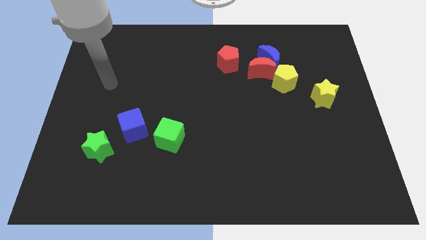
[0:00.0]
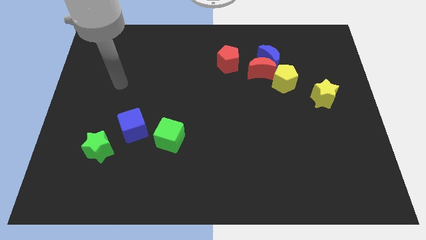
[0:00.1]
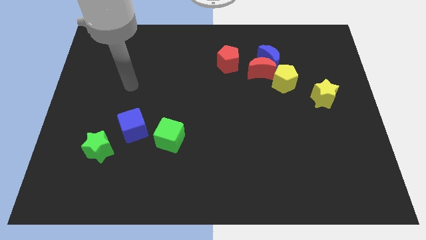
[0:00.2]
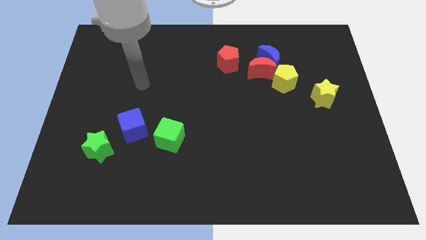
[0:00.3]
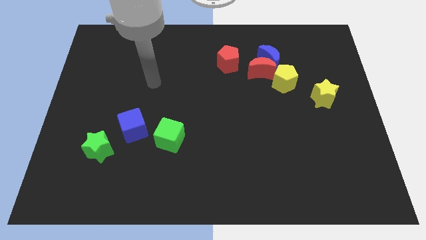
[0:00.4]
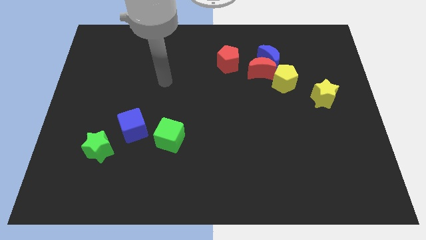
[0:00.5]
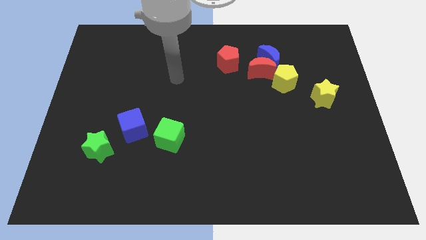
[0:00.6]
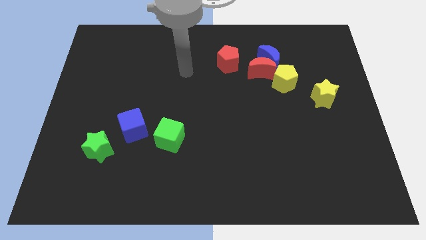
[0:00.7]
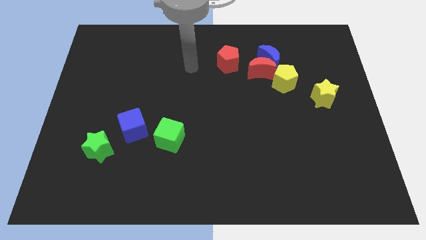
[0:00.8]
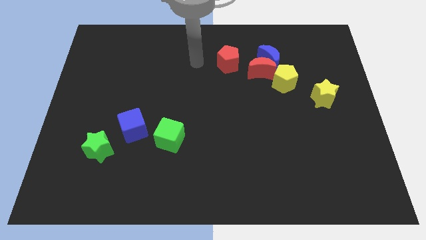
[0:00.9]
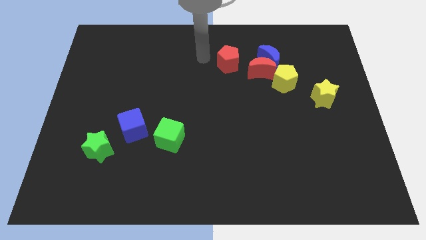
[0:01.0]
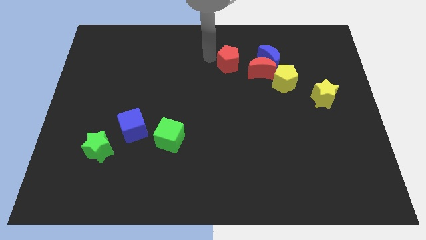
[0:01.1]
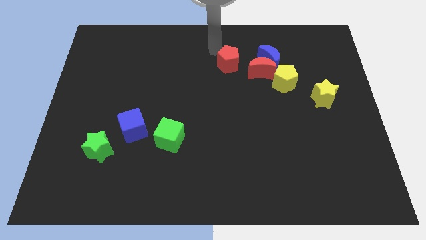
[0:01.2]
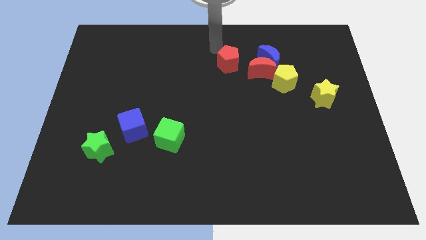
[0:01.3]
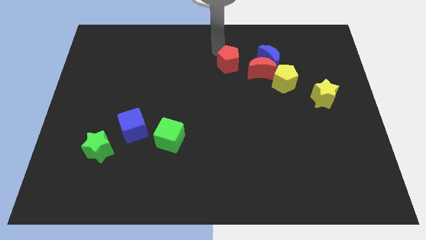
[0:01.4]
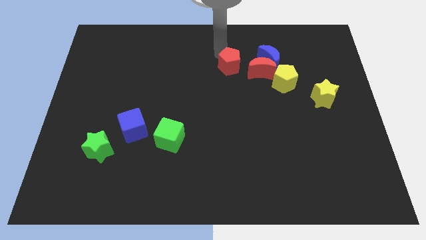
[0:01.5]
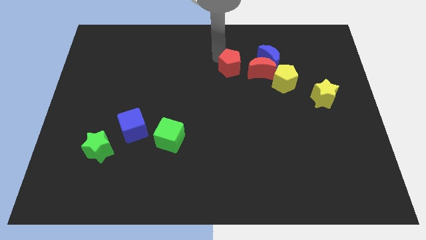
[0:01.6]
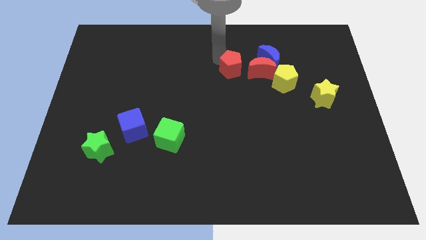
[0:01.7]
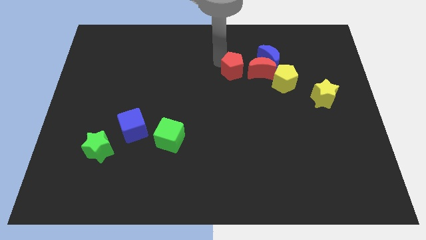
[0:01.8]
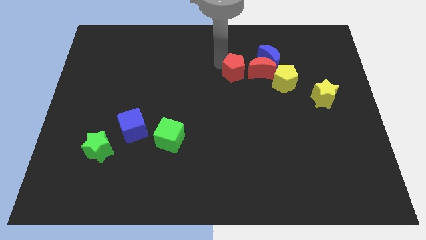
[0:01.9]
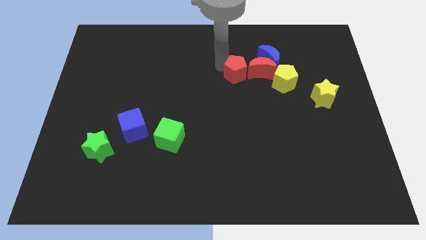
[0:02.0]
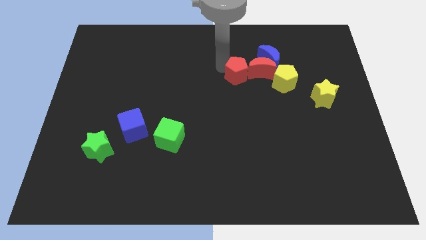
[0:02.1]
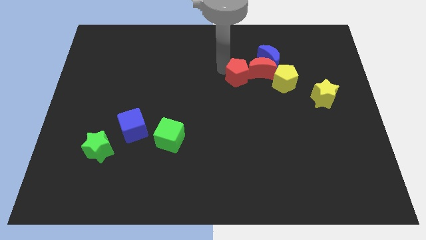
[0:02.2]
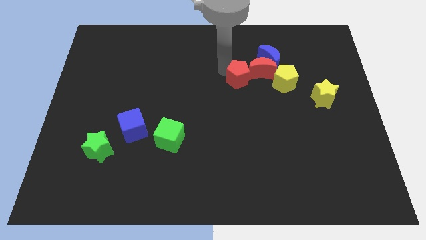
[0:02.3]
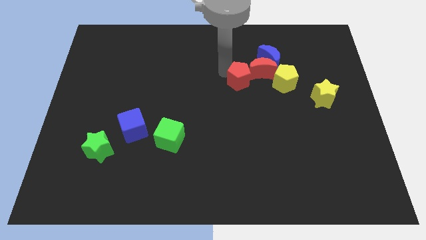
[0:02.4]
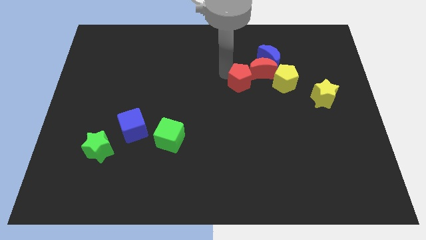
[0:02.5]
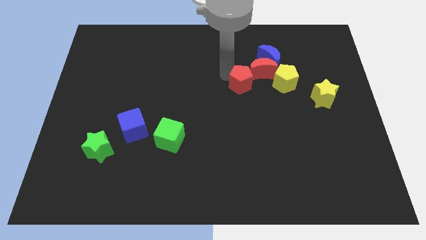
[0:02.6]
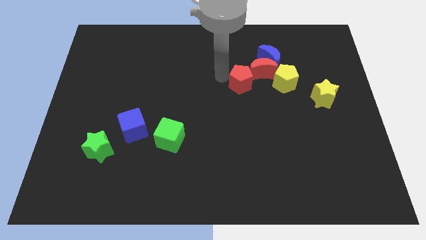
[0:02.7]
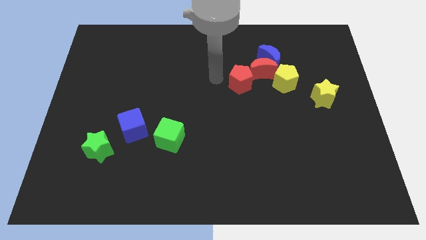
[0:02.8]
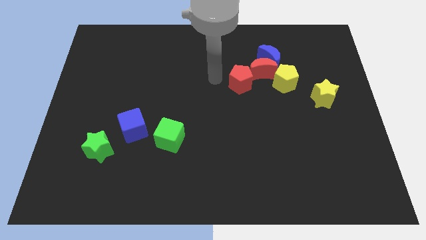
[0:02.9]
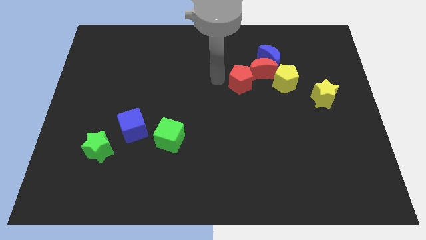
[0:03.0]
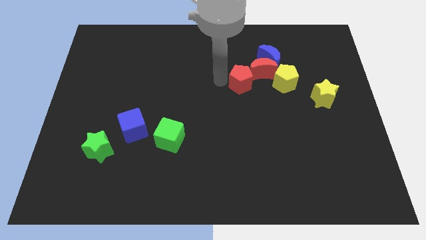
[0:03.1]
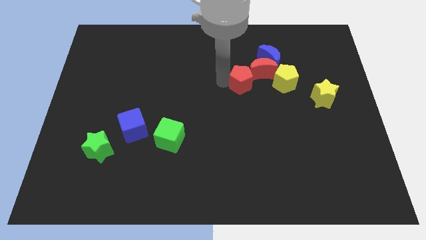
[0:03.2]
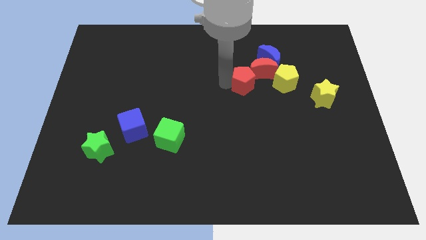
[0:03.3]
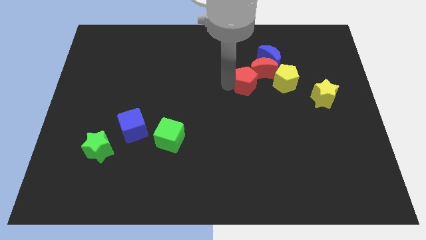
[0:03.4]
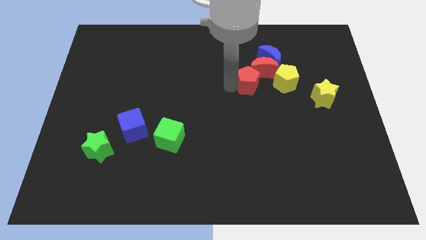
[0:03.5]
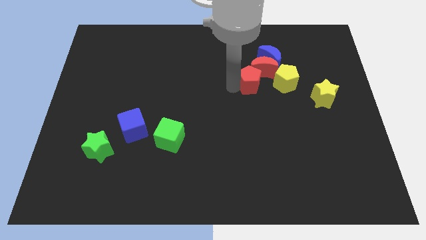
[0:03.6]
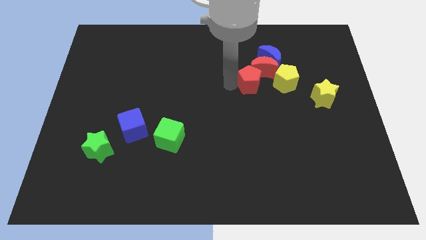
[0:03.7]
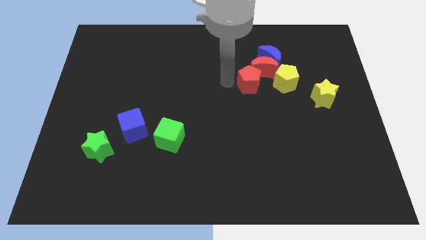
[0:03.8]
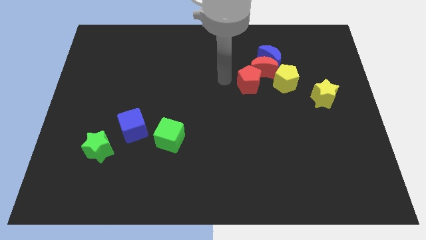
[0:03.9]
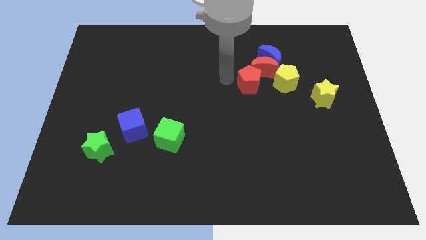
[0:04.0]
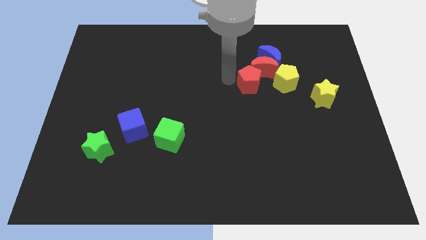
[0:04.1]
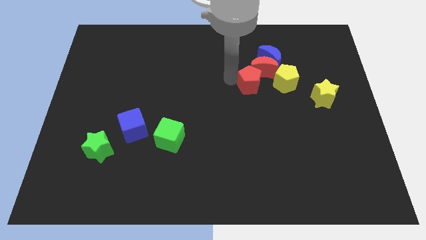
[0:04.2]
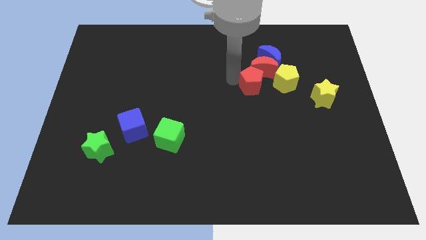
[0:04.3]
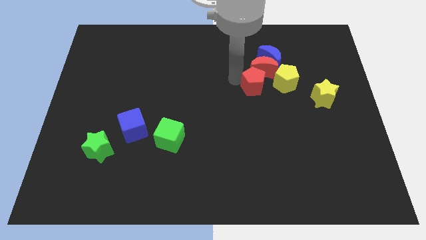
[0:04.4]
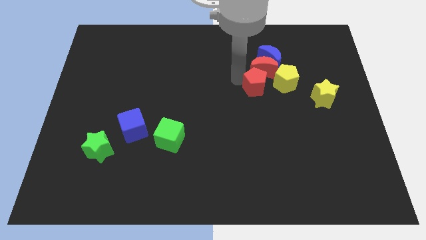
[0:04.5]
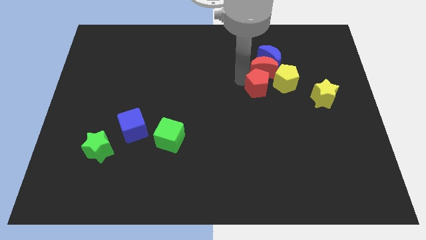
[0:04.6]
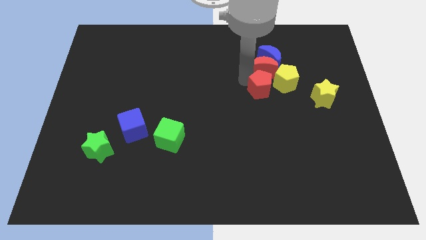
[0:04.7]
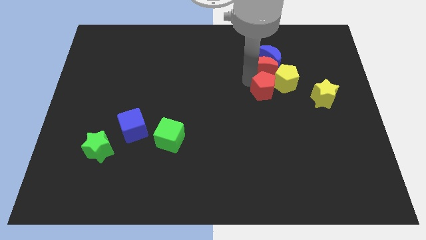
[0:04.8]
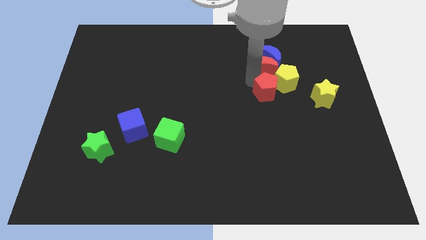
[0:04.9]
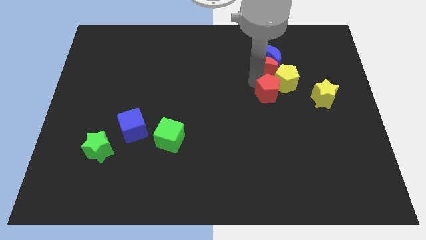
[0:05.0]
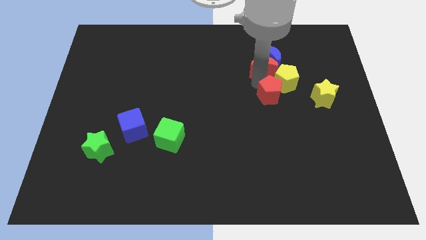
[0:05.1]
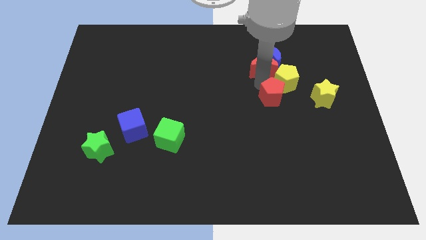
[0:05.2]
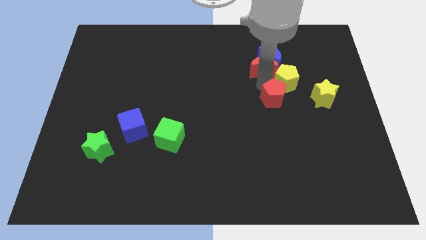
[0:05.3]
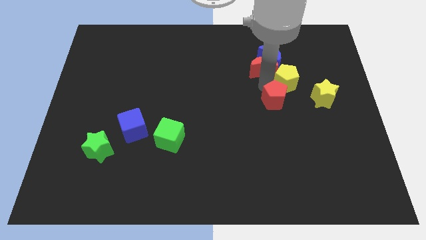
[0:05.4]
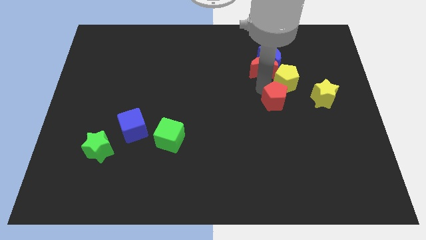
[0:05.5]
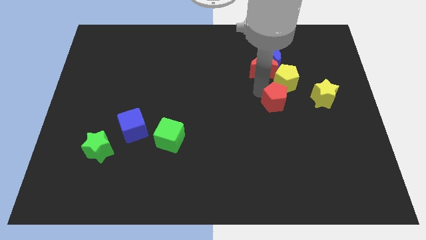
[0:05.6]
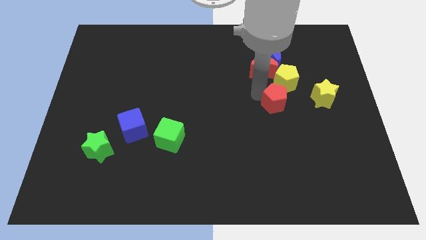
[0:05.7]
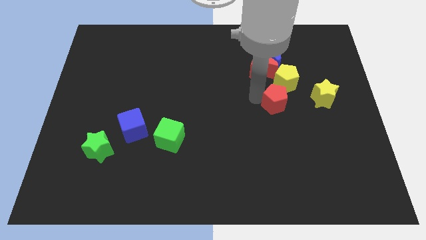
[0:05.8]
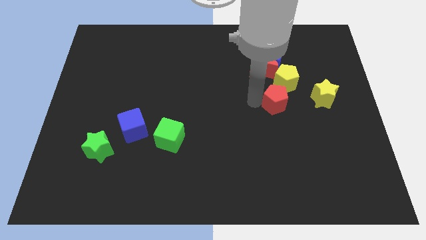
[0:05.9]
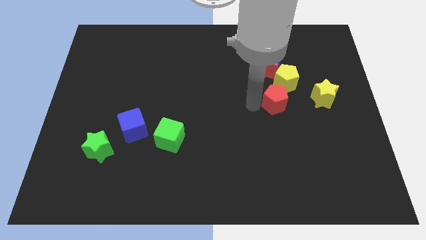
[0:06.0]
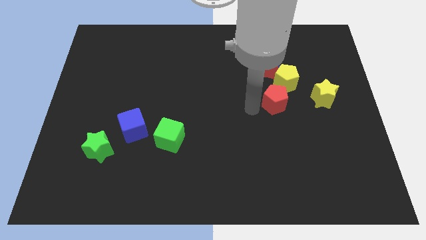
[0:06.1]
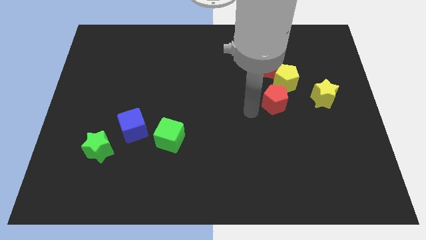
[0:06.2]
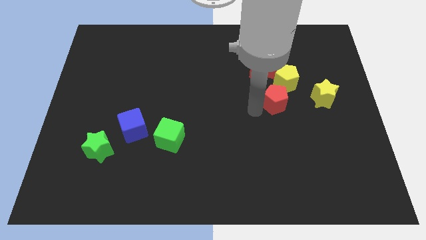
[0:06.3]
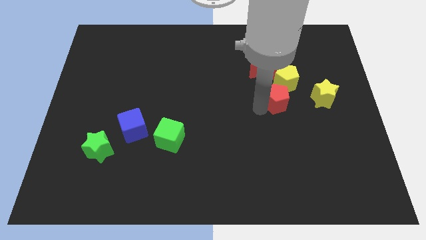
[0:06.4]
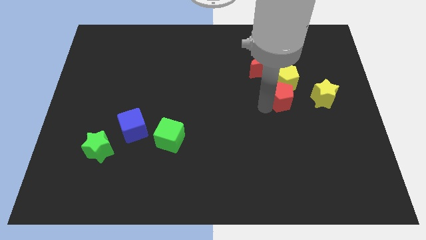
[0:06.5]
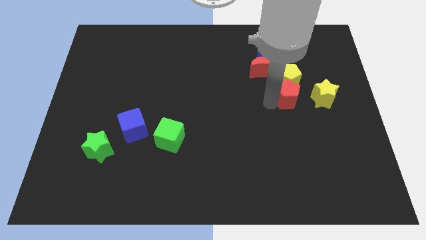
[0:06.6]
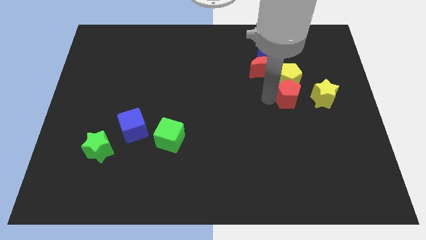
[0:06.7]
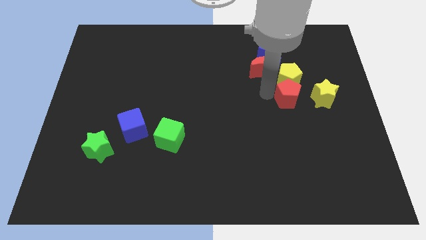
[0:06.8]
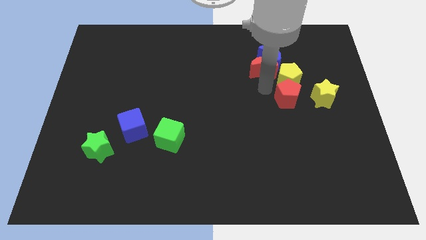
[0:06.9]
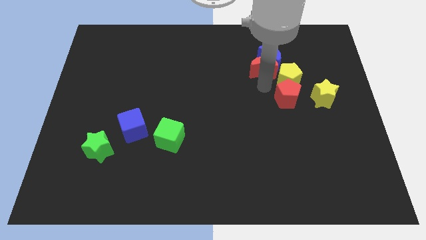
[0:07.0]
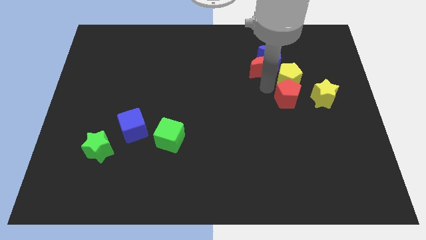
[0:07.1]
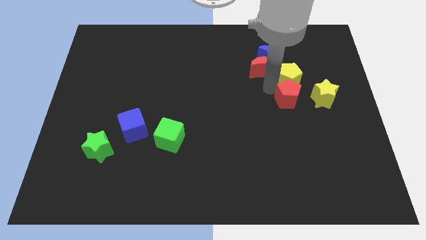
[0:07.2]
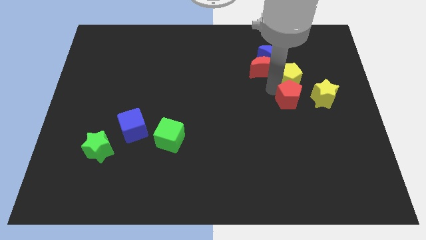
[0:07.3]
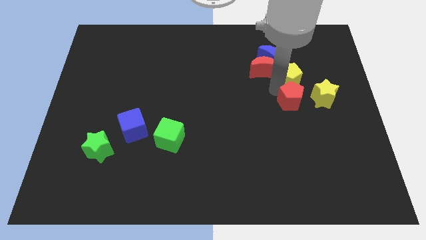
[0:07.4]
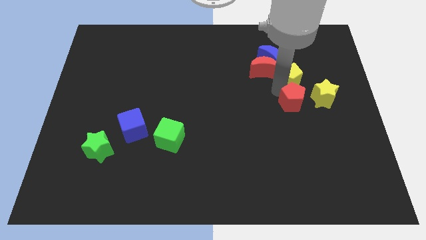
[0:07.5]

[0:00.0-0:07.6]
slide the red pentagon downwards and then right

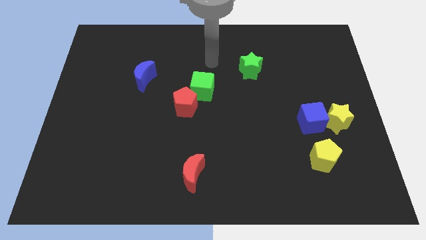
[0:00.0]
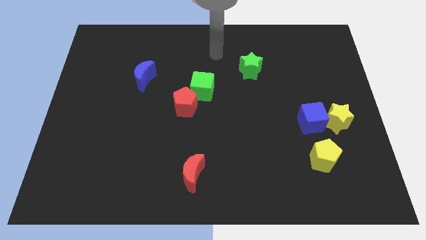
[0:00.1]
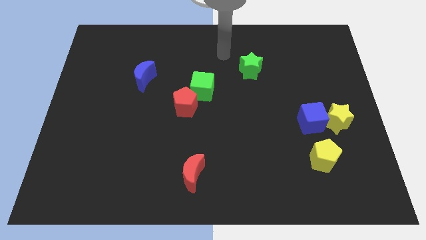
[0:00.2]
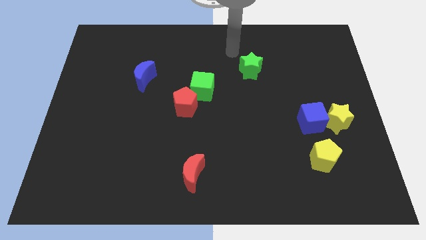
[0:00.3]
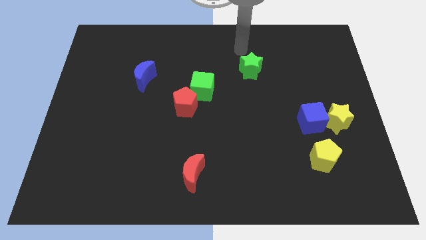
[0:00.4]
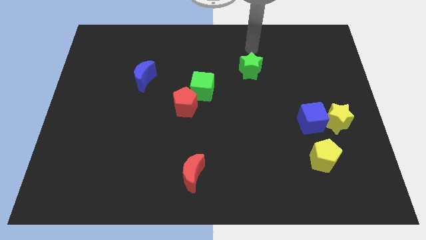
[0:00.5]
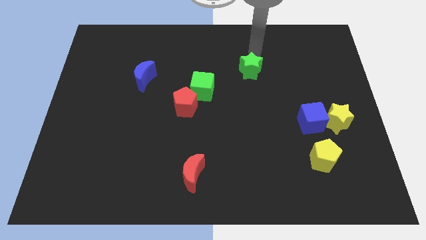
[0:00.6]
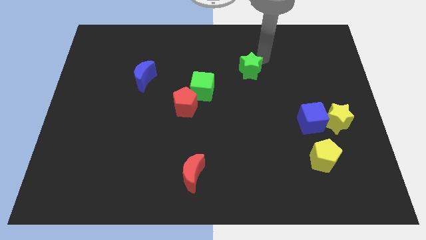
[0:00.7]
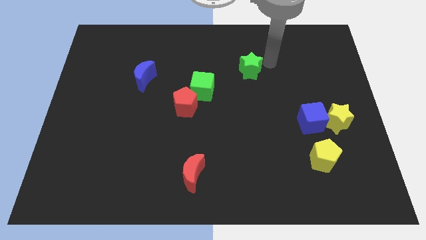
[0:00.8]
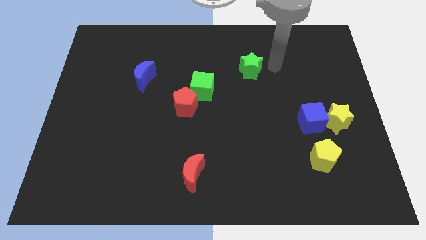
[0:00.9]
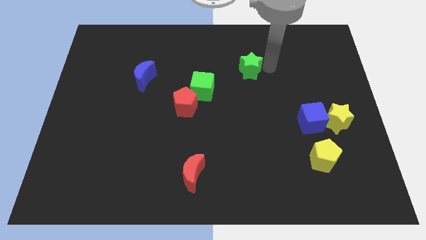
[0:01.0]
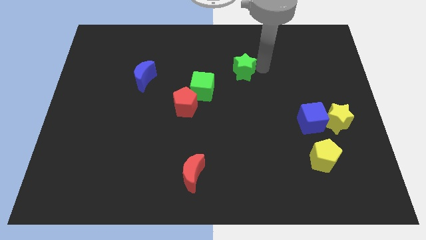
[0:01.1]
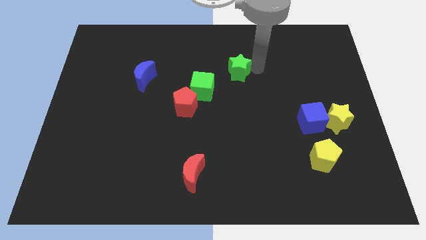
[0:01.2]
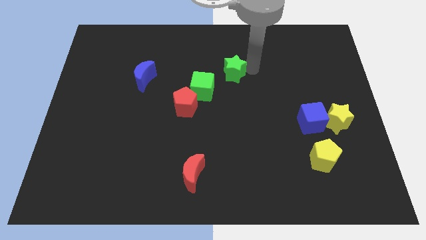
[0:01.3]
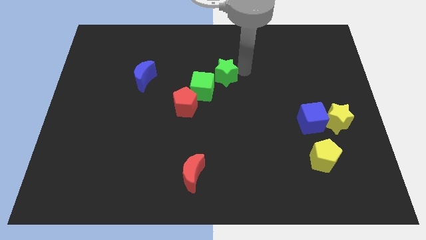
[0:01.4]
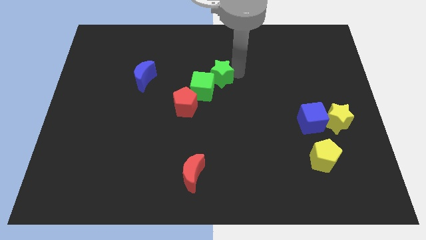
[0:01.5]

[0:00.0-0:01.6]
push the green star left a bit
